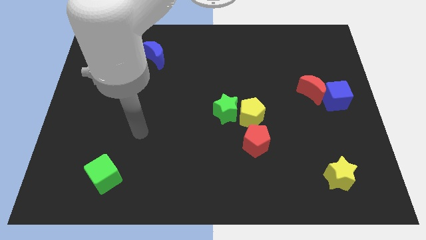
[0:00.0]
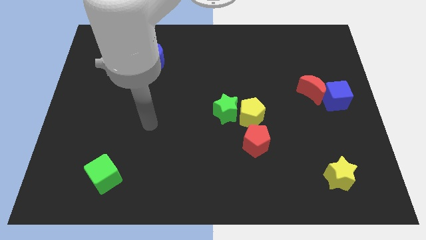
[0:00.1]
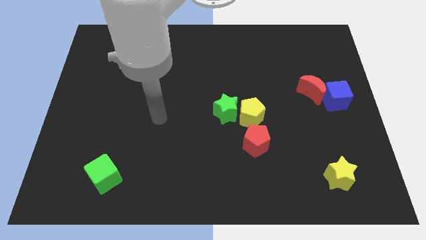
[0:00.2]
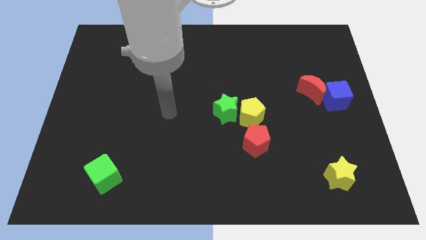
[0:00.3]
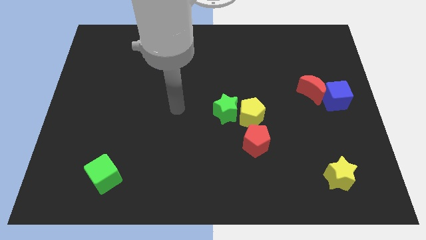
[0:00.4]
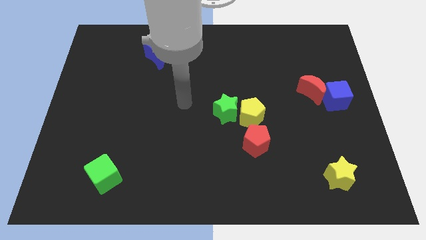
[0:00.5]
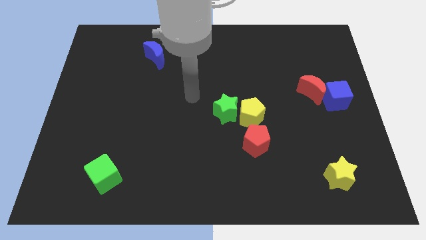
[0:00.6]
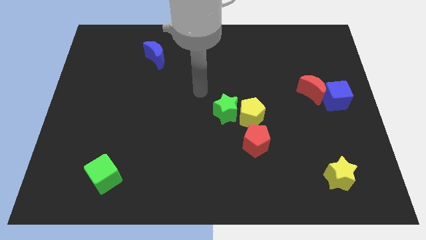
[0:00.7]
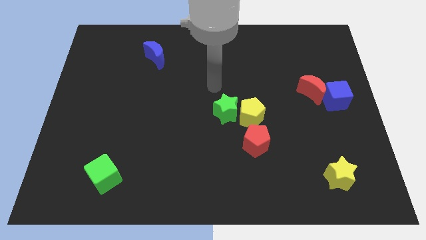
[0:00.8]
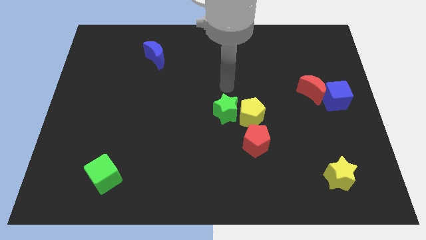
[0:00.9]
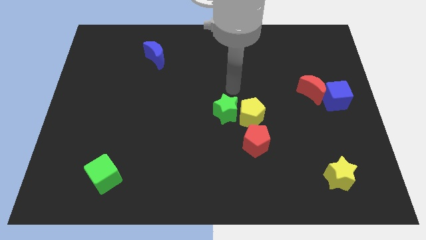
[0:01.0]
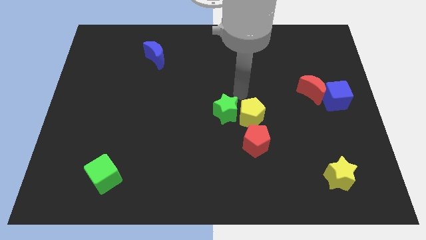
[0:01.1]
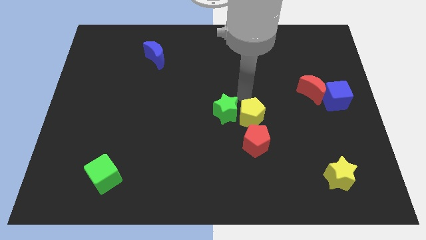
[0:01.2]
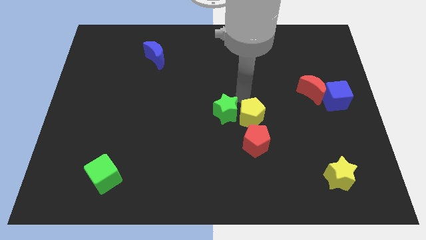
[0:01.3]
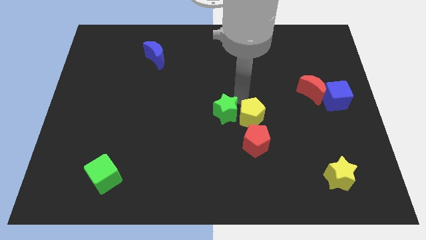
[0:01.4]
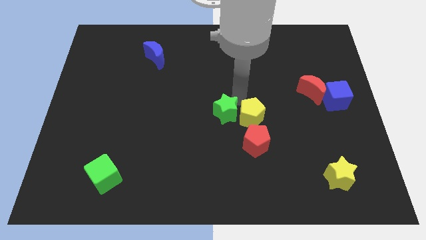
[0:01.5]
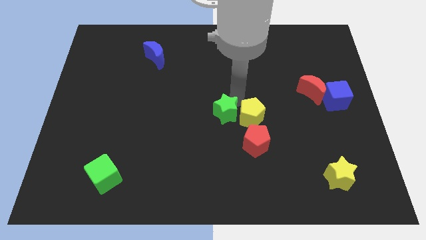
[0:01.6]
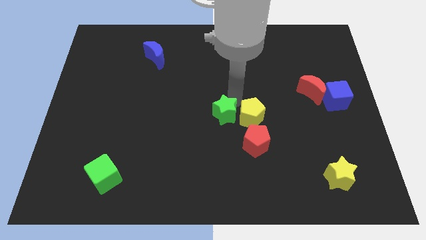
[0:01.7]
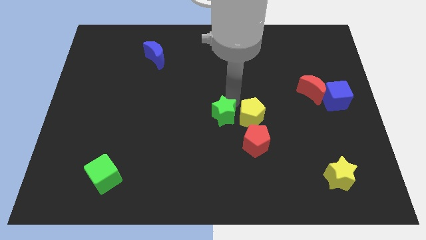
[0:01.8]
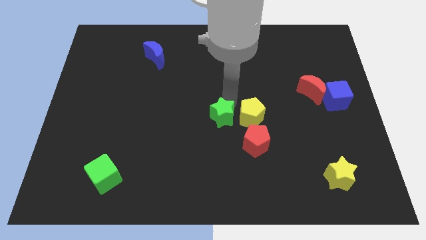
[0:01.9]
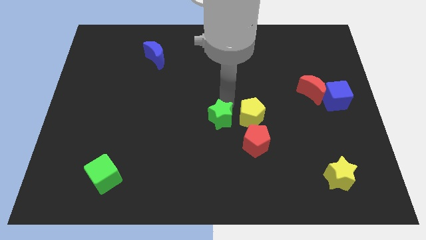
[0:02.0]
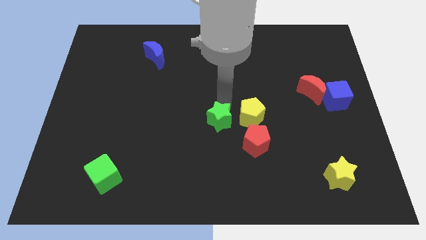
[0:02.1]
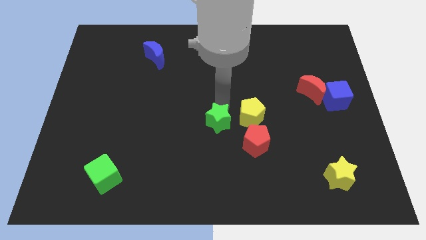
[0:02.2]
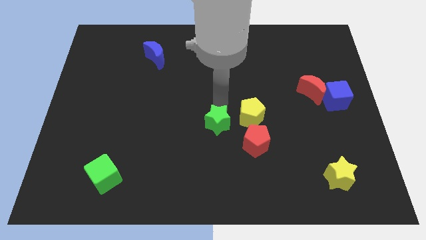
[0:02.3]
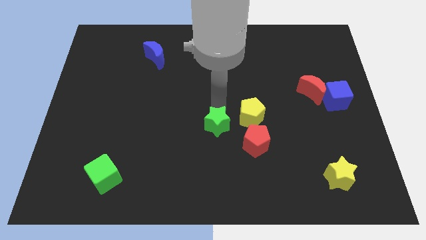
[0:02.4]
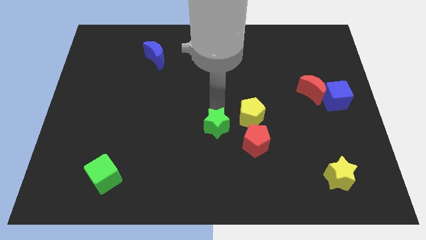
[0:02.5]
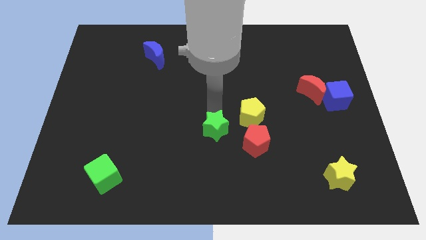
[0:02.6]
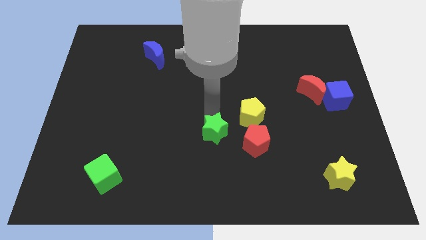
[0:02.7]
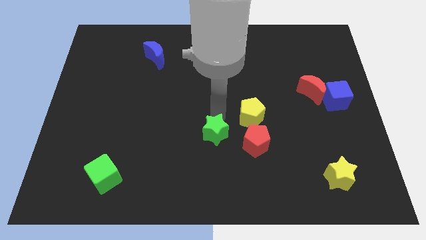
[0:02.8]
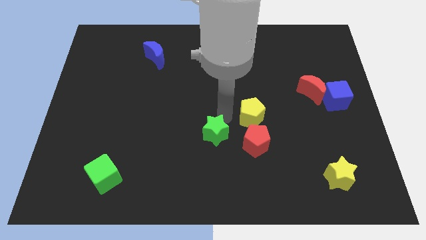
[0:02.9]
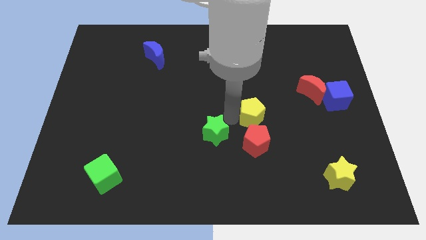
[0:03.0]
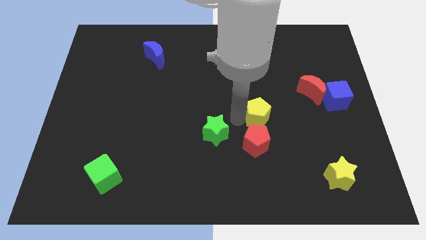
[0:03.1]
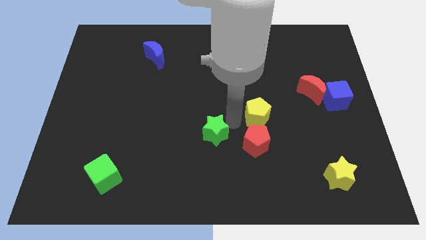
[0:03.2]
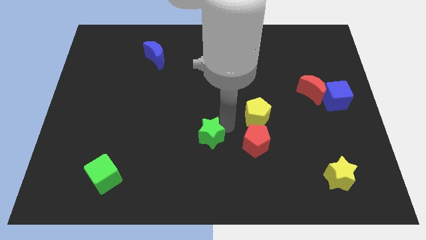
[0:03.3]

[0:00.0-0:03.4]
push the green star downwards and then left somewhat

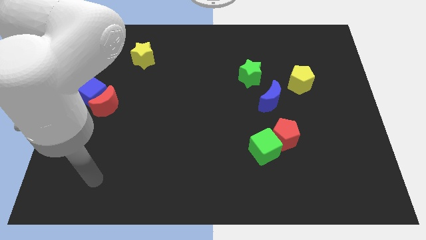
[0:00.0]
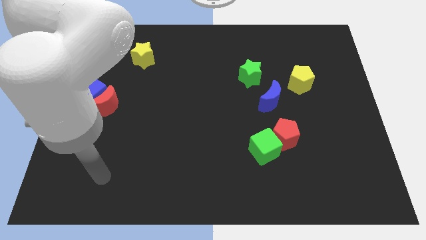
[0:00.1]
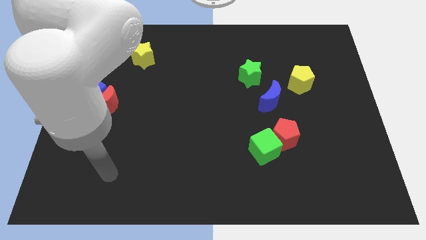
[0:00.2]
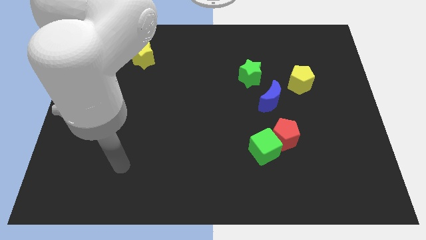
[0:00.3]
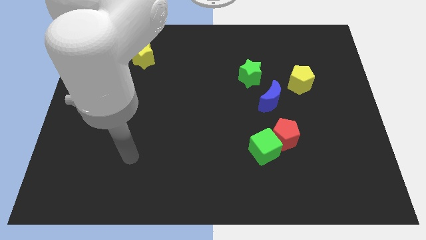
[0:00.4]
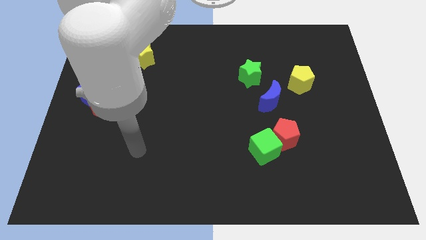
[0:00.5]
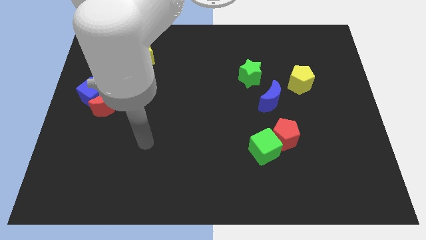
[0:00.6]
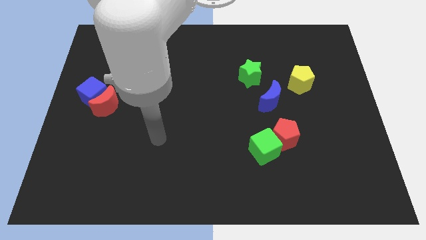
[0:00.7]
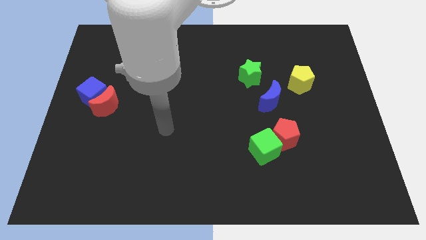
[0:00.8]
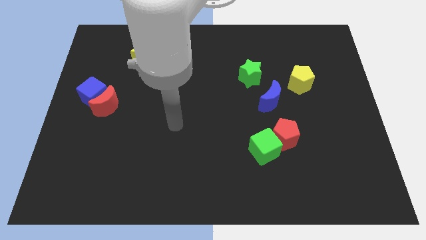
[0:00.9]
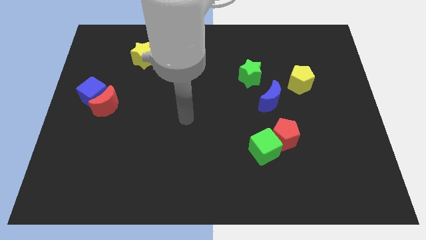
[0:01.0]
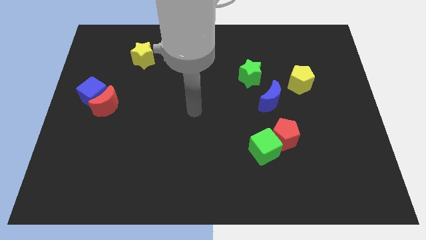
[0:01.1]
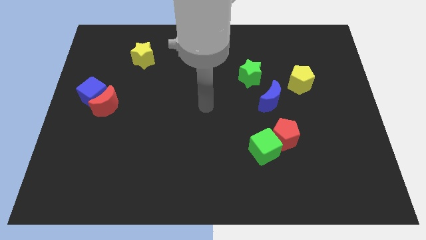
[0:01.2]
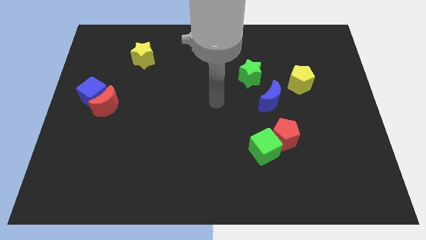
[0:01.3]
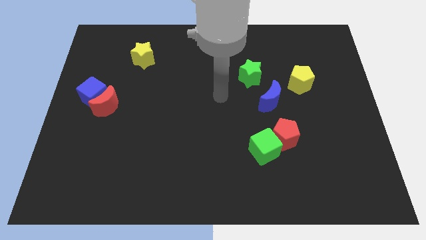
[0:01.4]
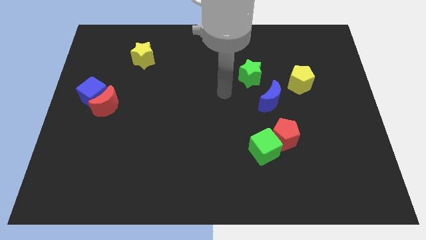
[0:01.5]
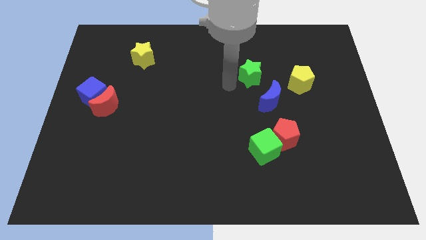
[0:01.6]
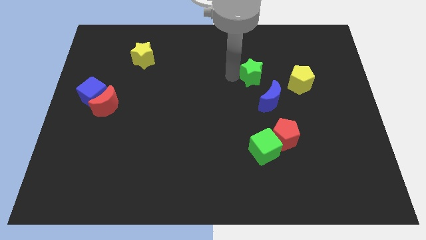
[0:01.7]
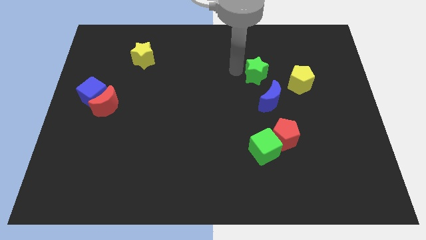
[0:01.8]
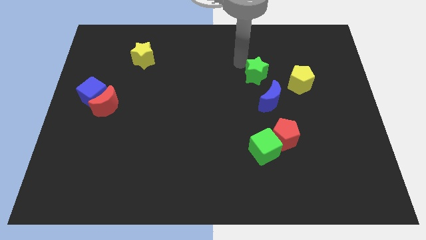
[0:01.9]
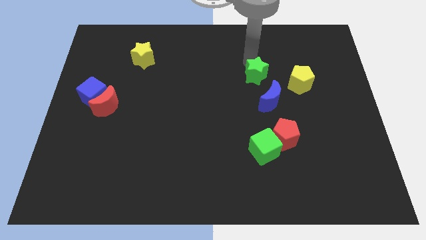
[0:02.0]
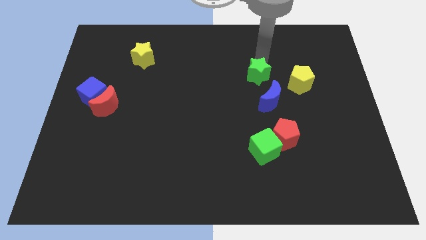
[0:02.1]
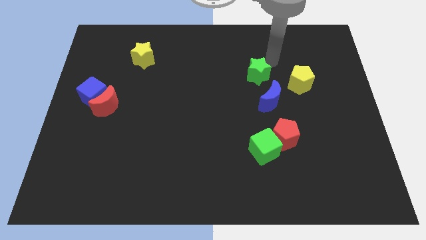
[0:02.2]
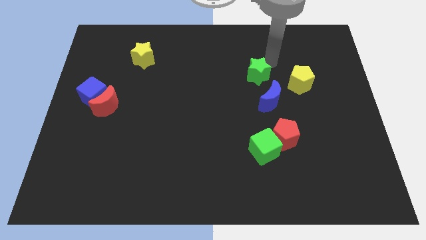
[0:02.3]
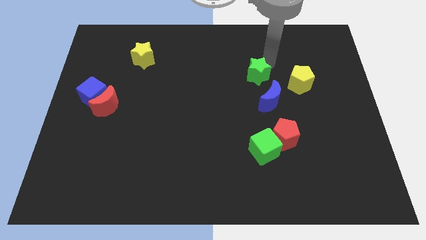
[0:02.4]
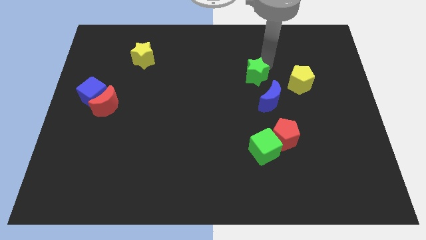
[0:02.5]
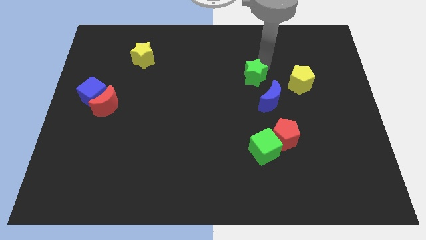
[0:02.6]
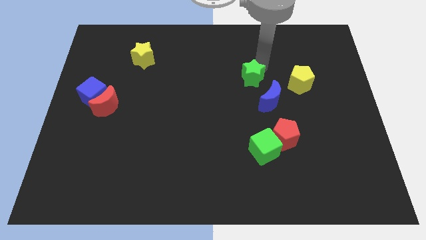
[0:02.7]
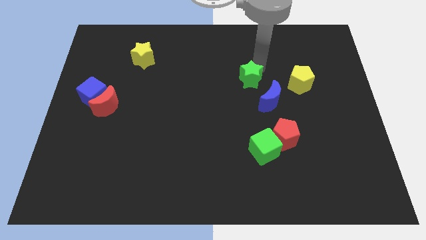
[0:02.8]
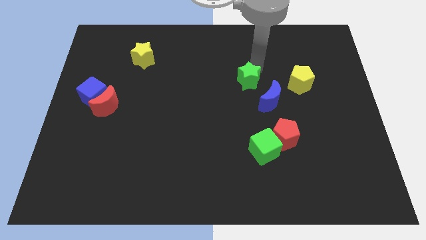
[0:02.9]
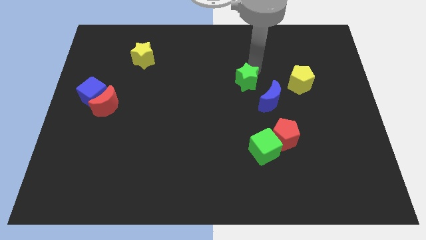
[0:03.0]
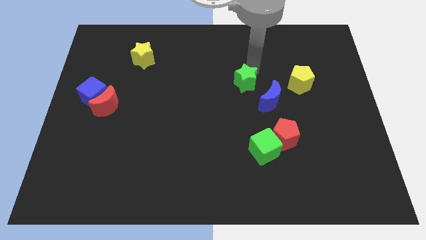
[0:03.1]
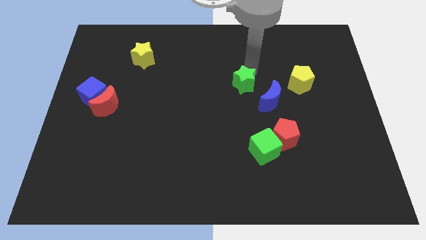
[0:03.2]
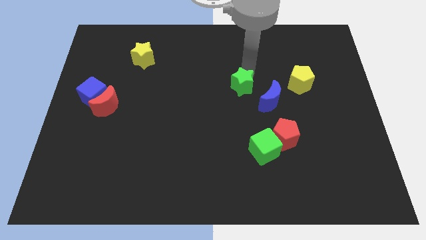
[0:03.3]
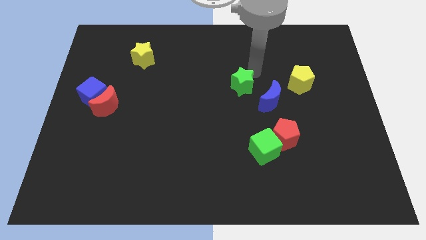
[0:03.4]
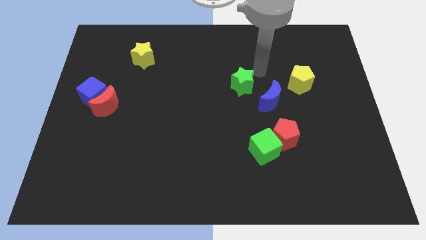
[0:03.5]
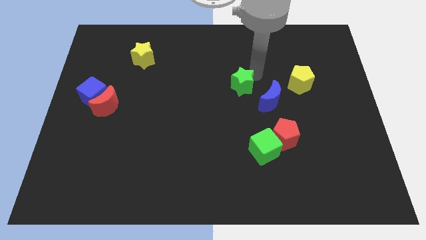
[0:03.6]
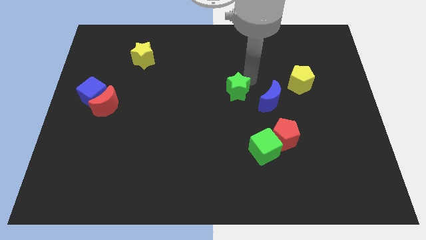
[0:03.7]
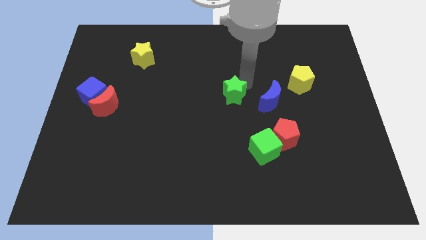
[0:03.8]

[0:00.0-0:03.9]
slightly slide the green star diagonally down and left

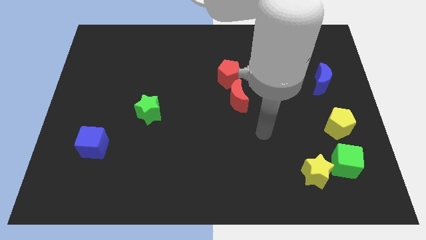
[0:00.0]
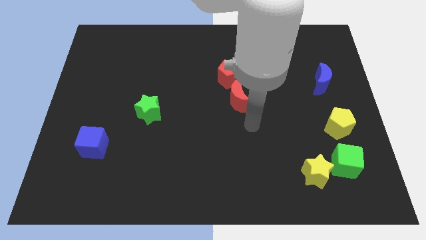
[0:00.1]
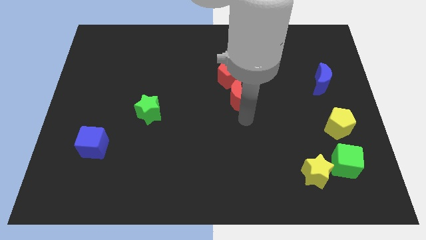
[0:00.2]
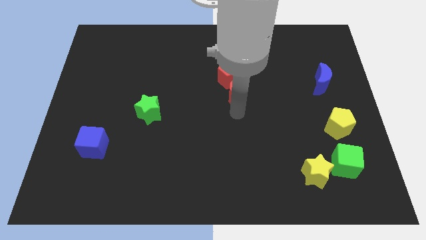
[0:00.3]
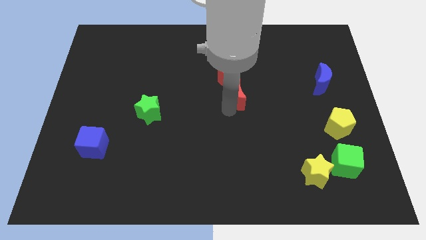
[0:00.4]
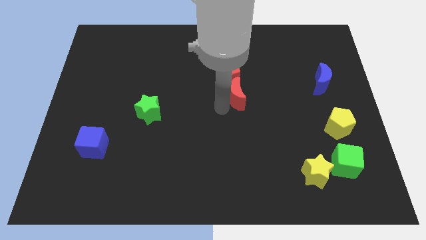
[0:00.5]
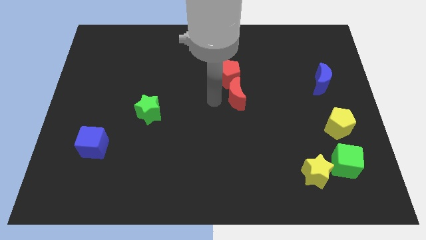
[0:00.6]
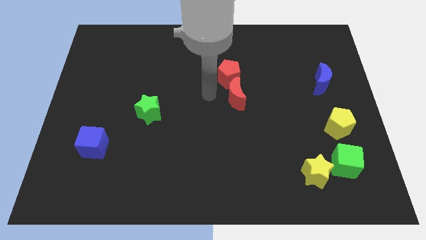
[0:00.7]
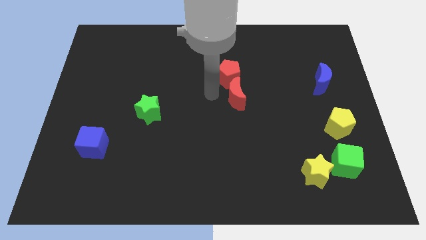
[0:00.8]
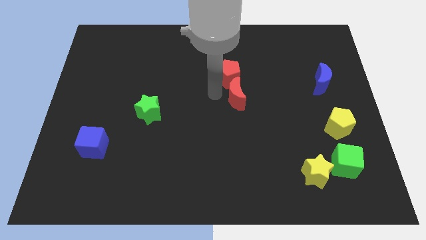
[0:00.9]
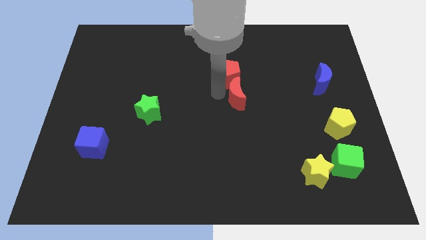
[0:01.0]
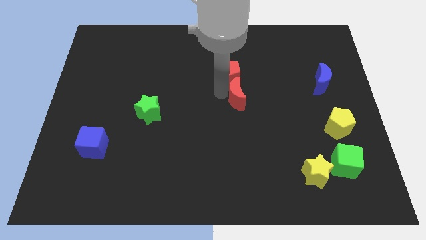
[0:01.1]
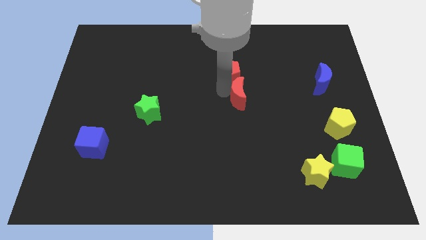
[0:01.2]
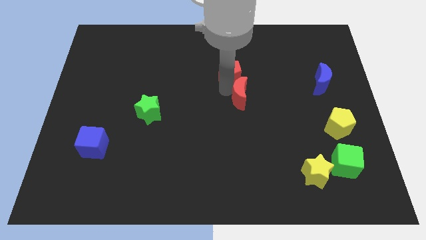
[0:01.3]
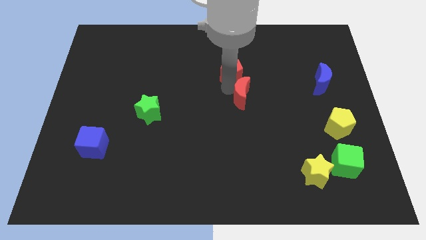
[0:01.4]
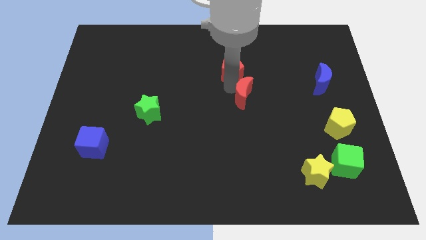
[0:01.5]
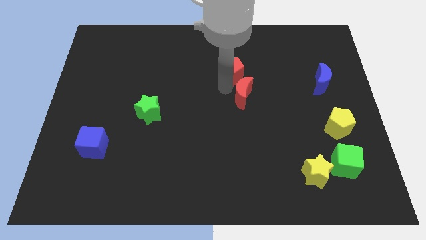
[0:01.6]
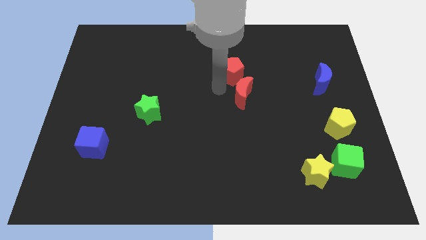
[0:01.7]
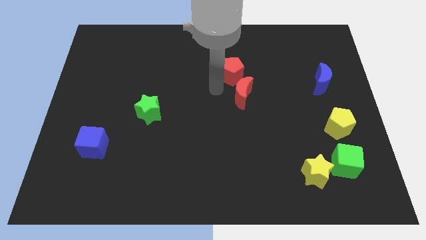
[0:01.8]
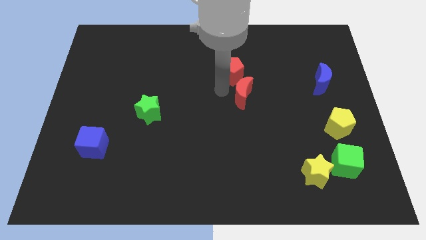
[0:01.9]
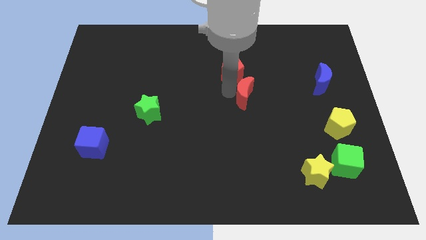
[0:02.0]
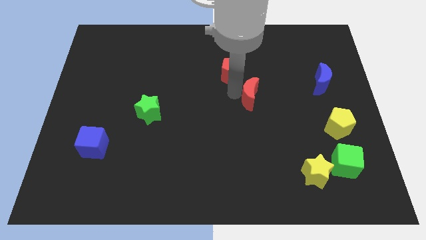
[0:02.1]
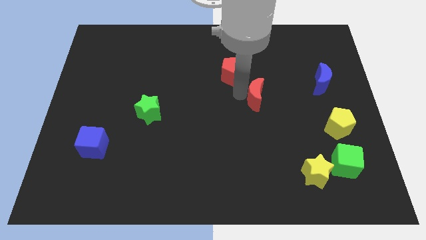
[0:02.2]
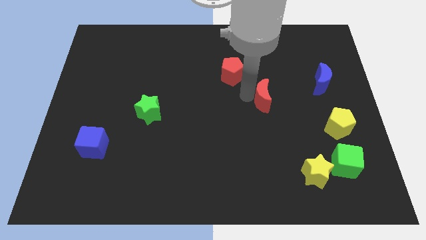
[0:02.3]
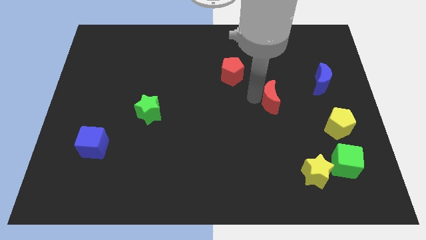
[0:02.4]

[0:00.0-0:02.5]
slightly move the red moon to the right
